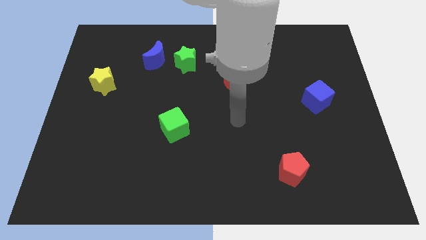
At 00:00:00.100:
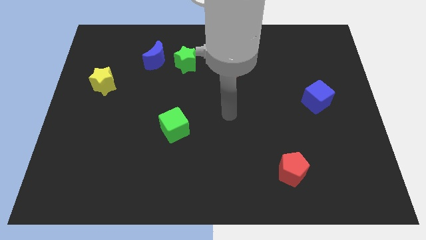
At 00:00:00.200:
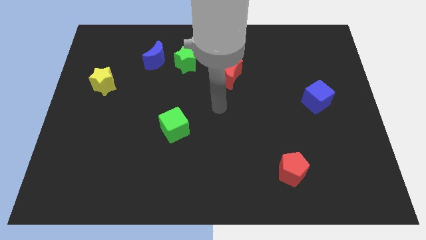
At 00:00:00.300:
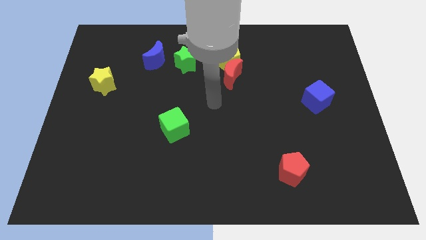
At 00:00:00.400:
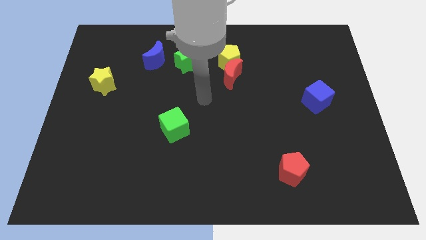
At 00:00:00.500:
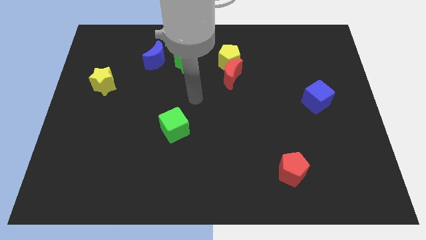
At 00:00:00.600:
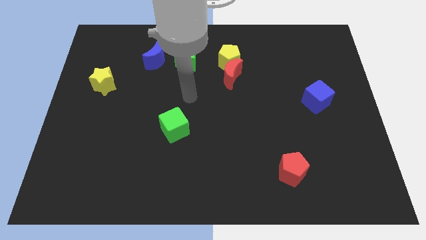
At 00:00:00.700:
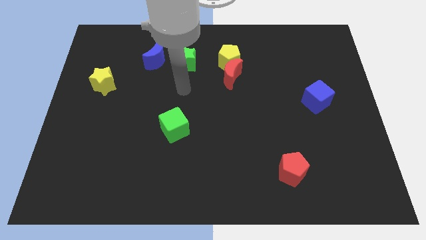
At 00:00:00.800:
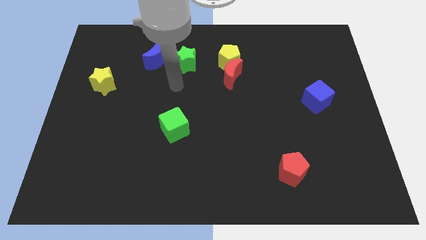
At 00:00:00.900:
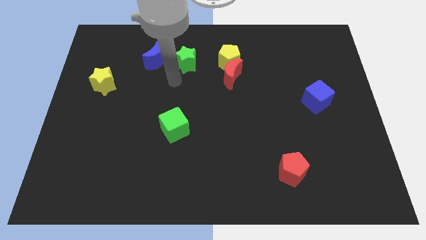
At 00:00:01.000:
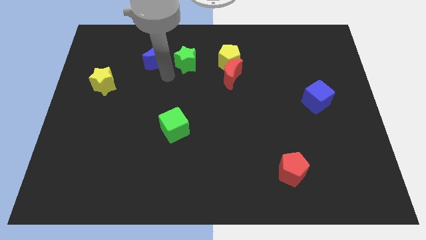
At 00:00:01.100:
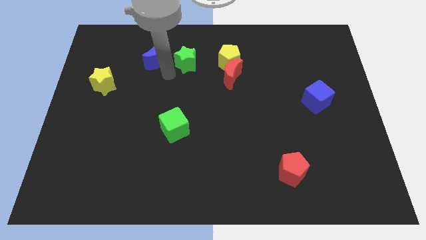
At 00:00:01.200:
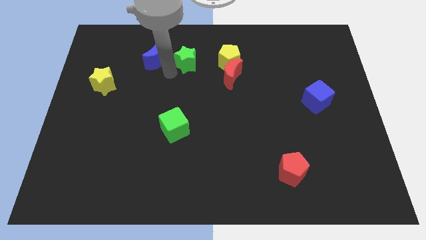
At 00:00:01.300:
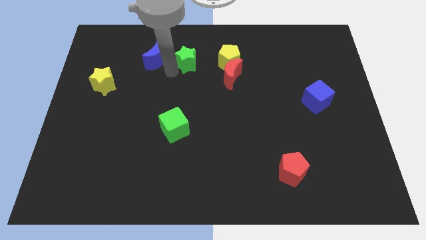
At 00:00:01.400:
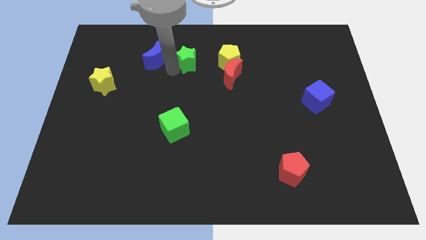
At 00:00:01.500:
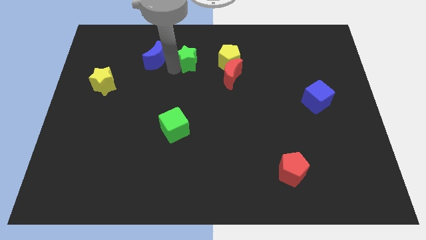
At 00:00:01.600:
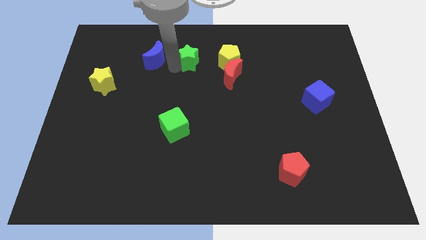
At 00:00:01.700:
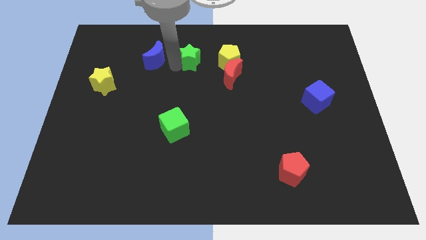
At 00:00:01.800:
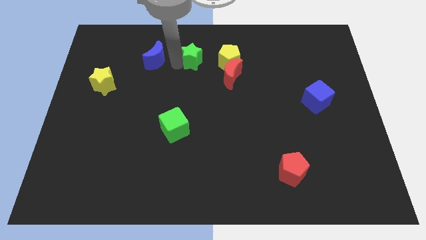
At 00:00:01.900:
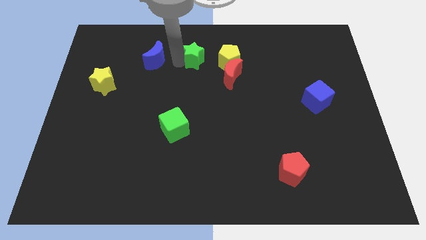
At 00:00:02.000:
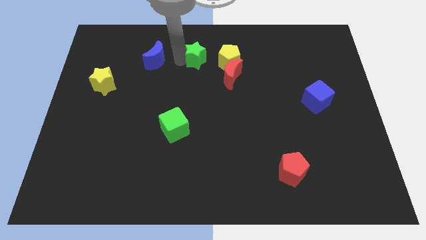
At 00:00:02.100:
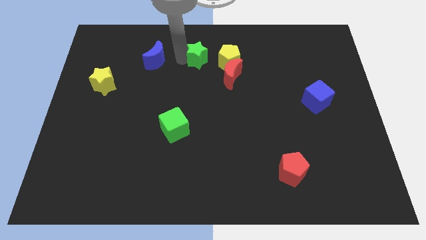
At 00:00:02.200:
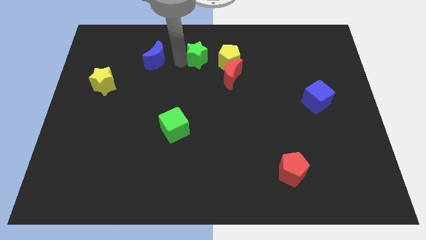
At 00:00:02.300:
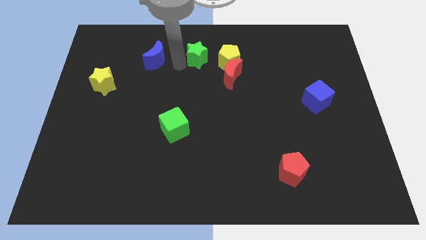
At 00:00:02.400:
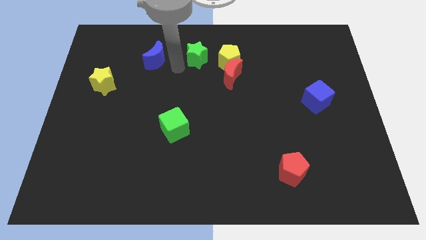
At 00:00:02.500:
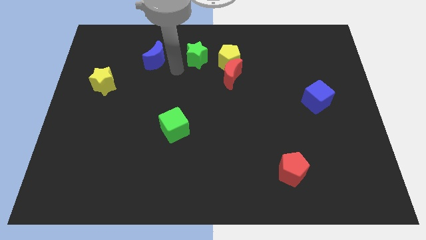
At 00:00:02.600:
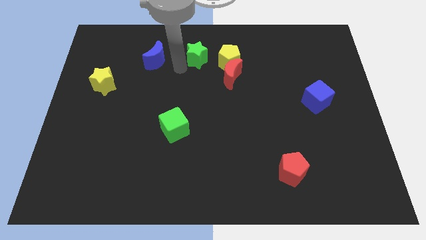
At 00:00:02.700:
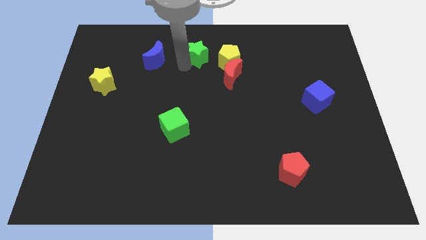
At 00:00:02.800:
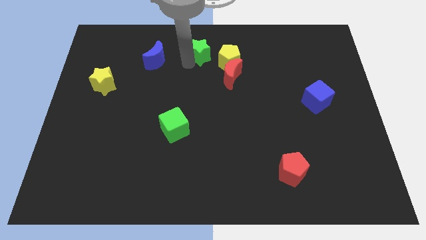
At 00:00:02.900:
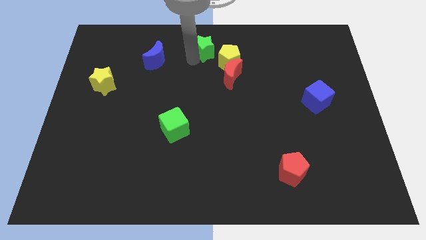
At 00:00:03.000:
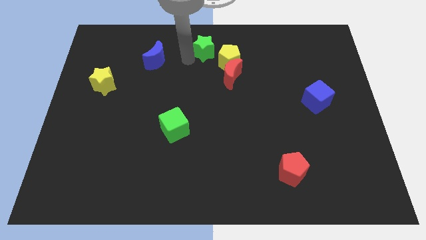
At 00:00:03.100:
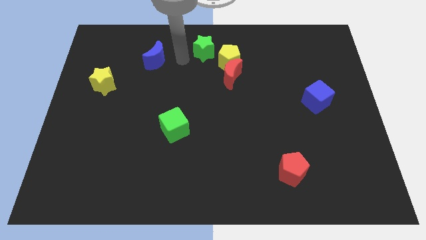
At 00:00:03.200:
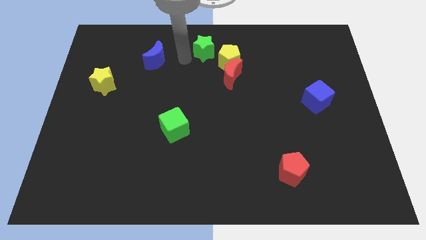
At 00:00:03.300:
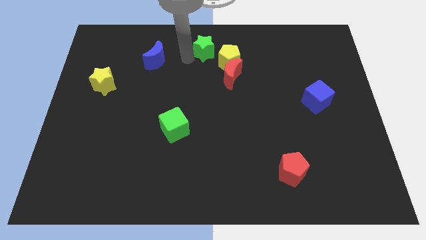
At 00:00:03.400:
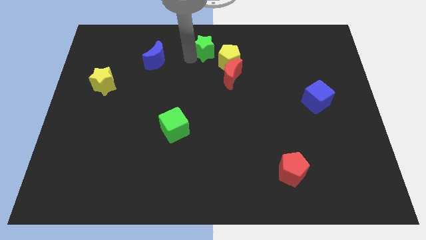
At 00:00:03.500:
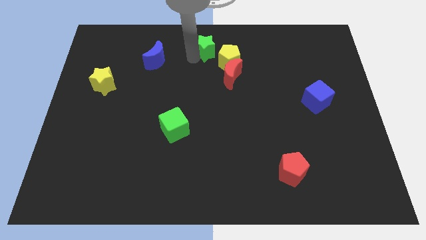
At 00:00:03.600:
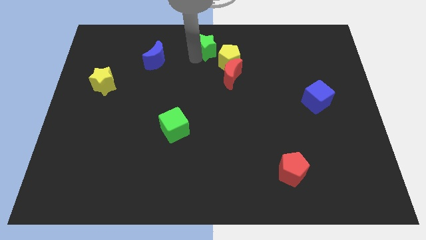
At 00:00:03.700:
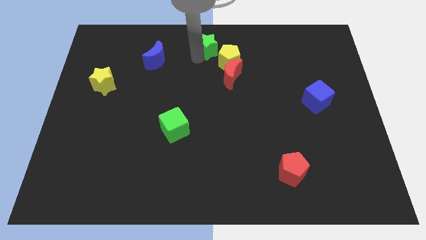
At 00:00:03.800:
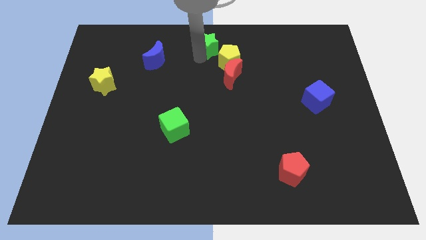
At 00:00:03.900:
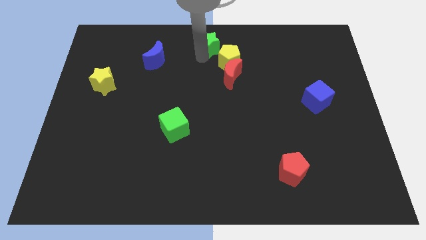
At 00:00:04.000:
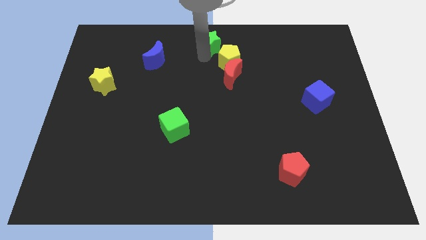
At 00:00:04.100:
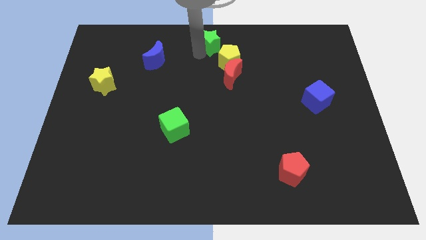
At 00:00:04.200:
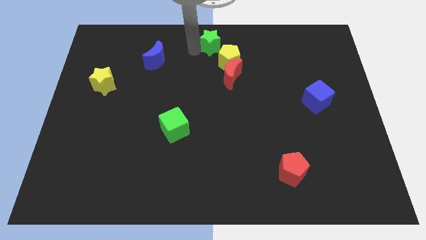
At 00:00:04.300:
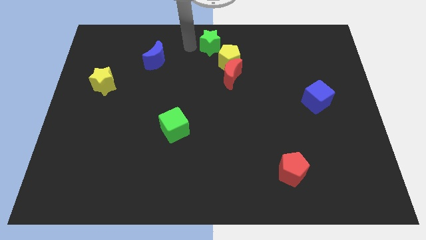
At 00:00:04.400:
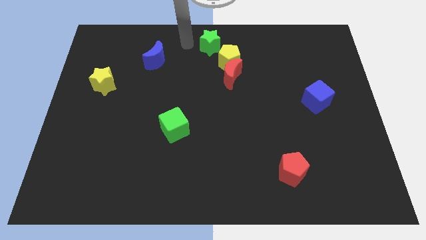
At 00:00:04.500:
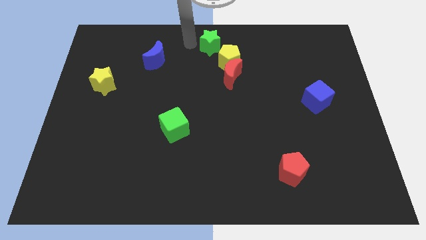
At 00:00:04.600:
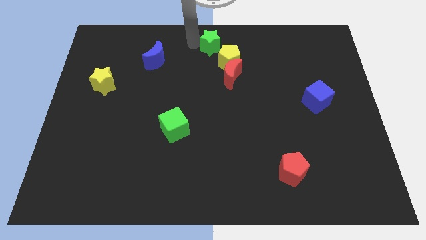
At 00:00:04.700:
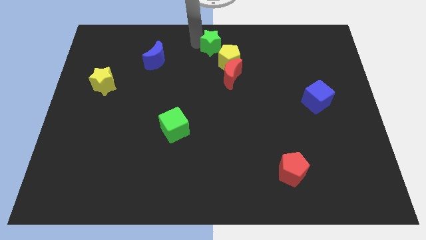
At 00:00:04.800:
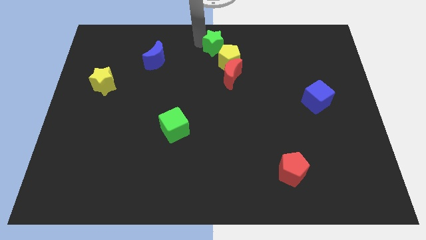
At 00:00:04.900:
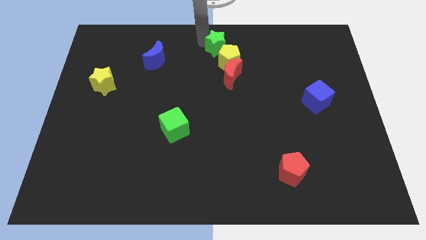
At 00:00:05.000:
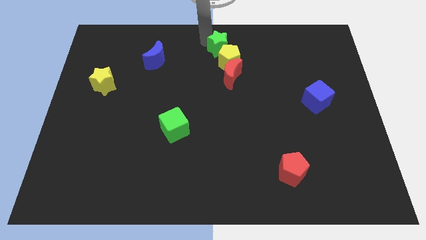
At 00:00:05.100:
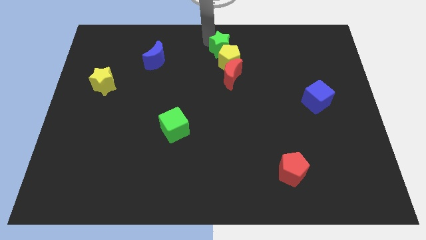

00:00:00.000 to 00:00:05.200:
move the green star to the right slightly

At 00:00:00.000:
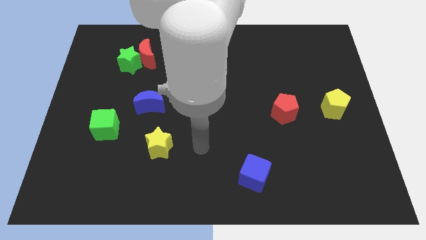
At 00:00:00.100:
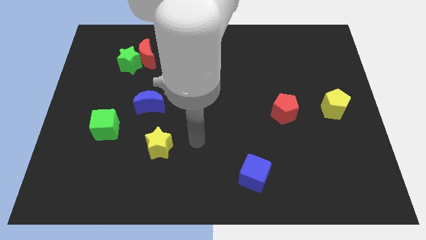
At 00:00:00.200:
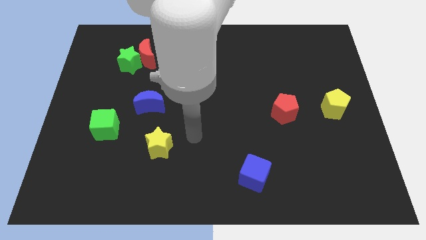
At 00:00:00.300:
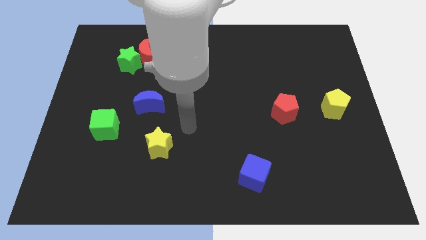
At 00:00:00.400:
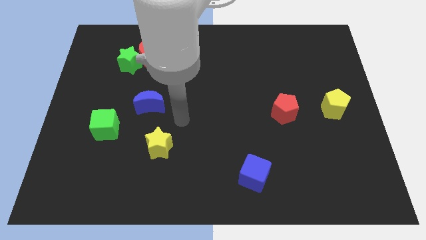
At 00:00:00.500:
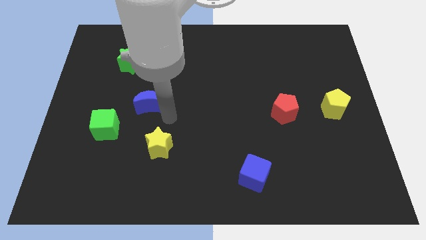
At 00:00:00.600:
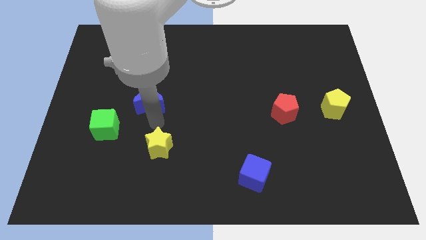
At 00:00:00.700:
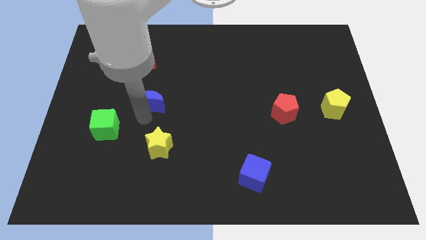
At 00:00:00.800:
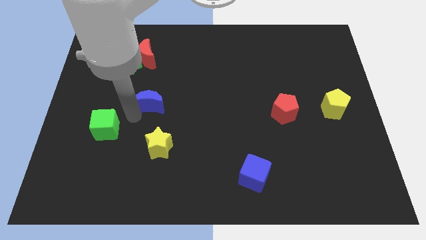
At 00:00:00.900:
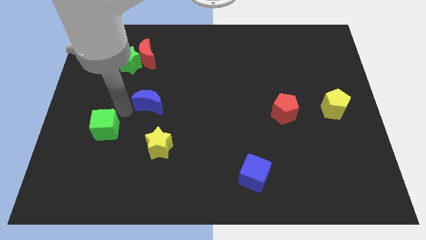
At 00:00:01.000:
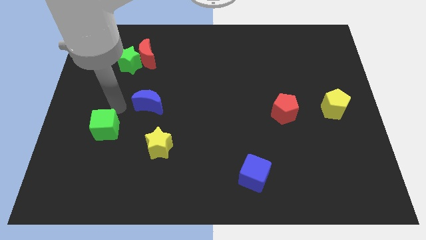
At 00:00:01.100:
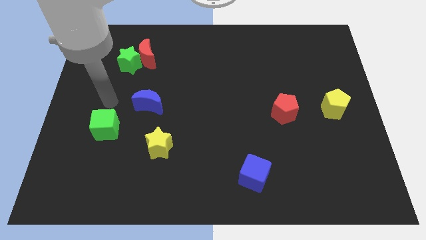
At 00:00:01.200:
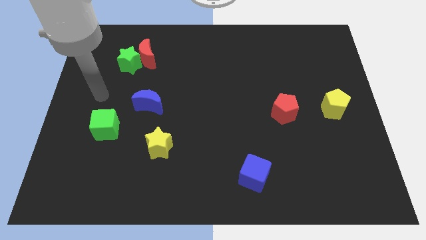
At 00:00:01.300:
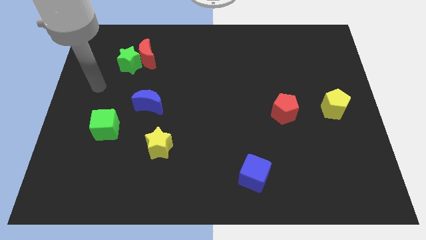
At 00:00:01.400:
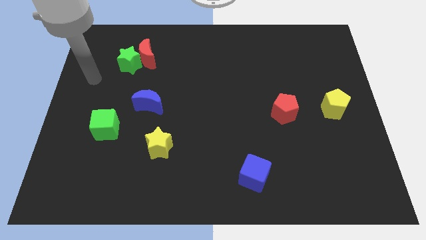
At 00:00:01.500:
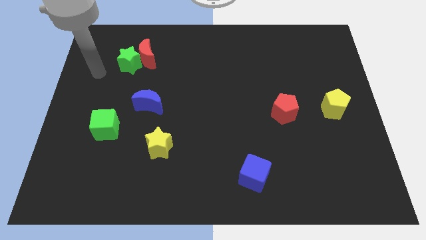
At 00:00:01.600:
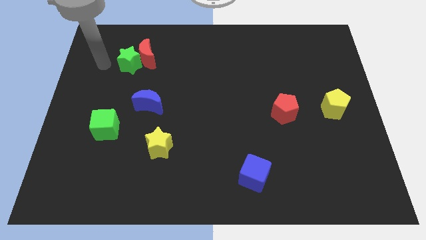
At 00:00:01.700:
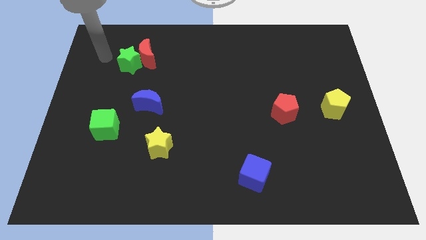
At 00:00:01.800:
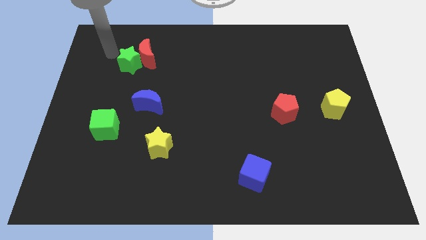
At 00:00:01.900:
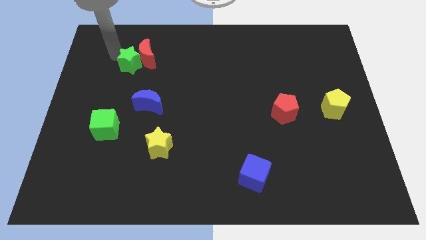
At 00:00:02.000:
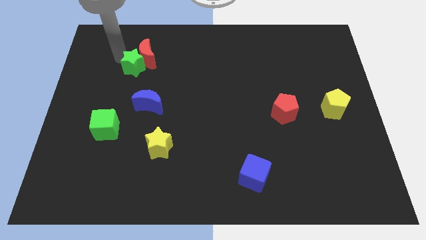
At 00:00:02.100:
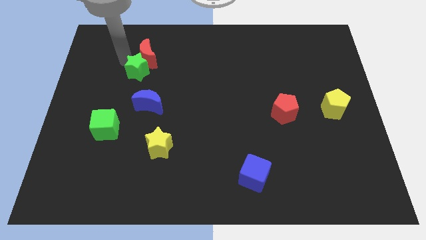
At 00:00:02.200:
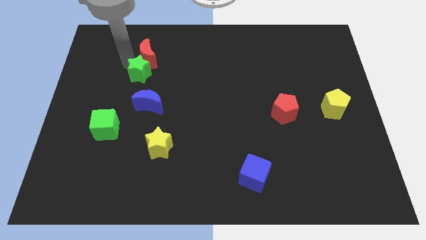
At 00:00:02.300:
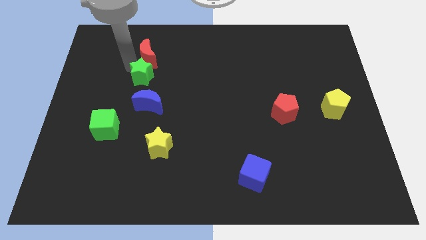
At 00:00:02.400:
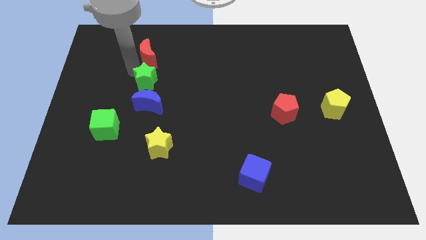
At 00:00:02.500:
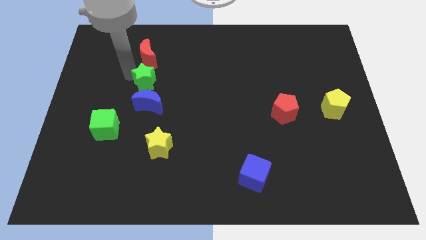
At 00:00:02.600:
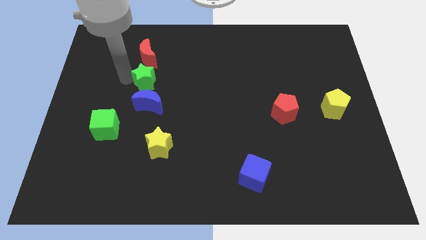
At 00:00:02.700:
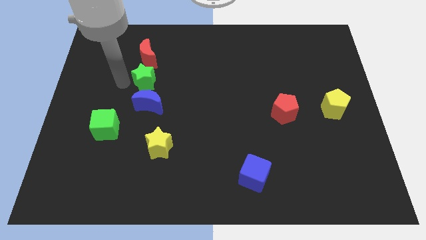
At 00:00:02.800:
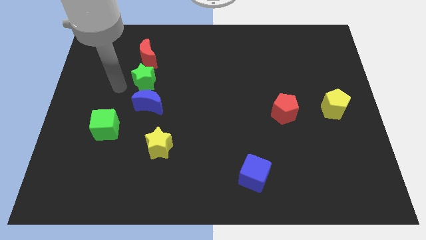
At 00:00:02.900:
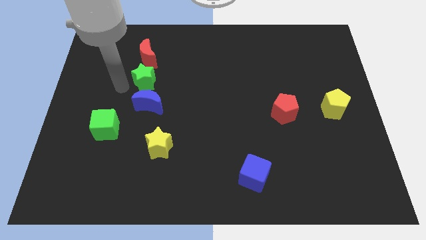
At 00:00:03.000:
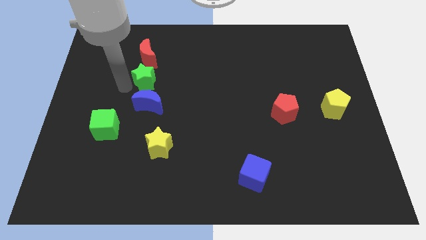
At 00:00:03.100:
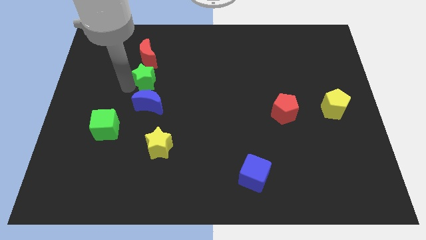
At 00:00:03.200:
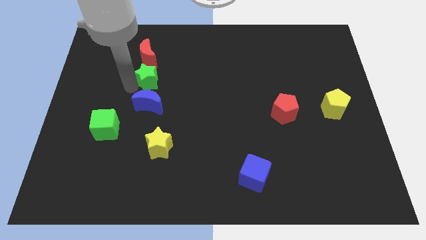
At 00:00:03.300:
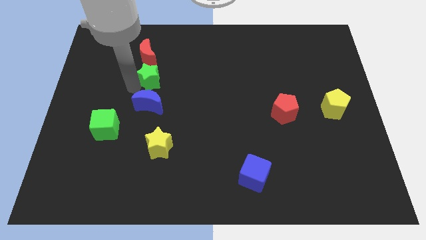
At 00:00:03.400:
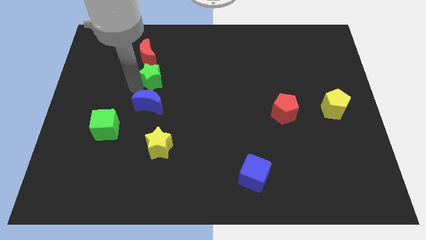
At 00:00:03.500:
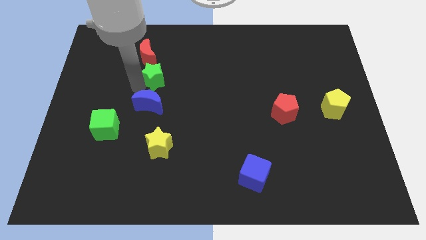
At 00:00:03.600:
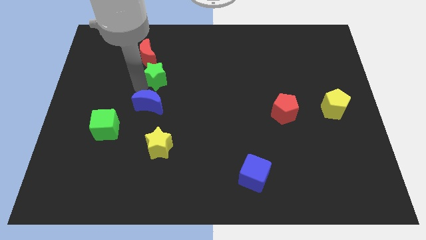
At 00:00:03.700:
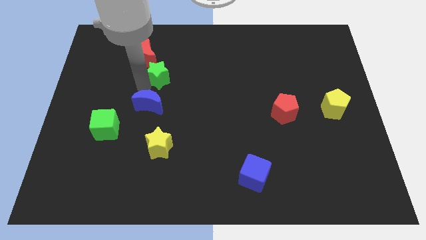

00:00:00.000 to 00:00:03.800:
push the green star somewhat to the right
